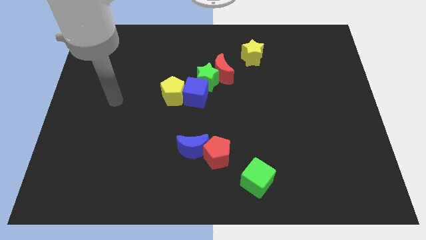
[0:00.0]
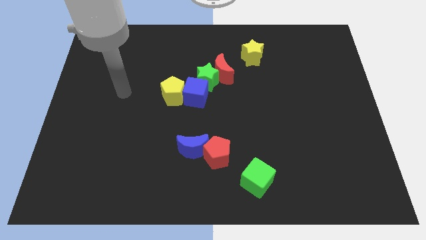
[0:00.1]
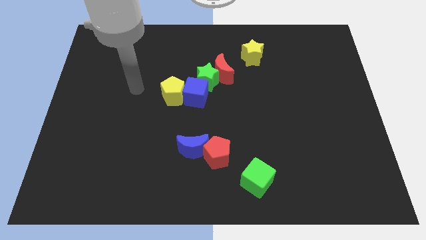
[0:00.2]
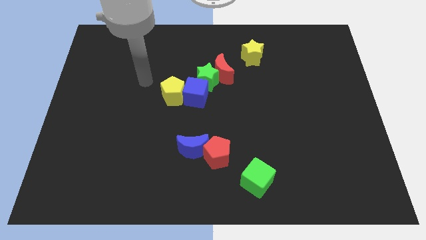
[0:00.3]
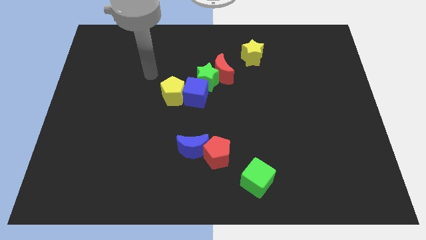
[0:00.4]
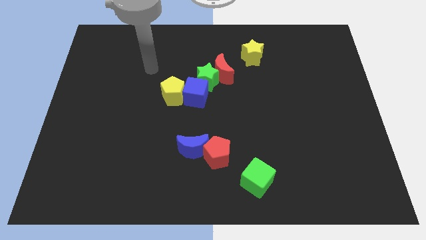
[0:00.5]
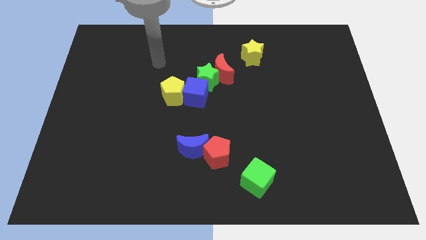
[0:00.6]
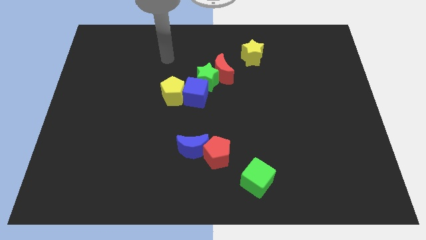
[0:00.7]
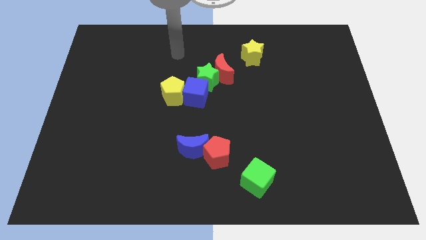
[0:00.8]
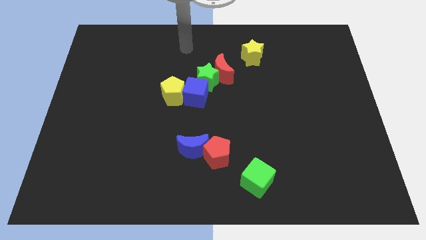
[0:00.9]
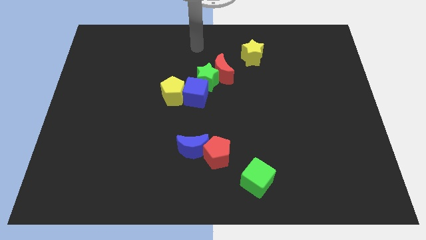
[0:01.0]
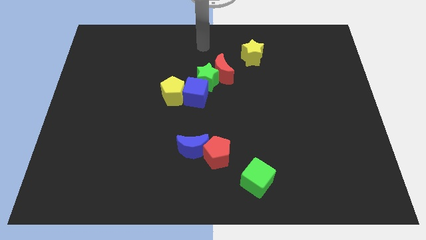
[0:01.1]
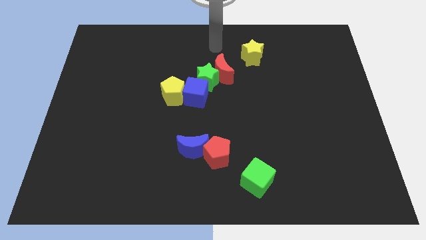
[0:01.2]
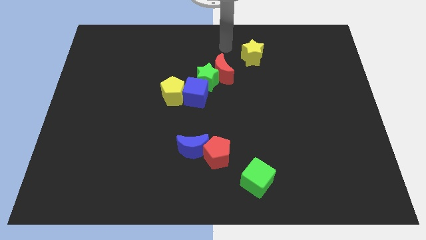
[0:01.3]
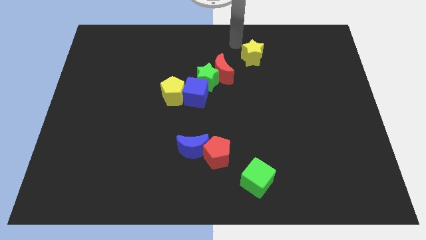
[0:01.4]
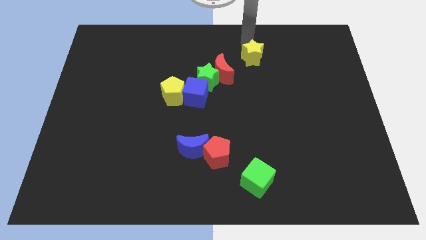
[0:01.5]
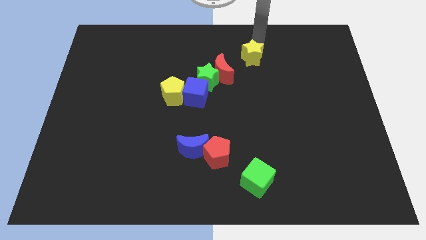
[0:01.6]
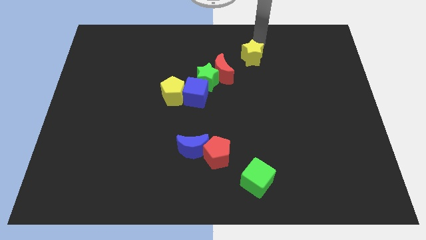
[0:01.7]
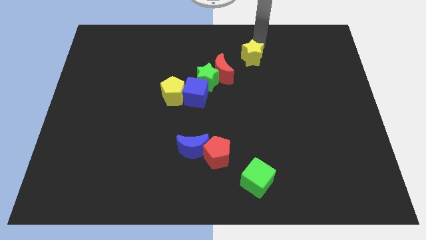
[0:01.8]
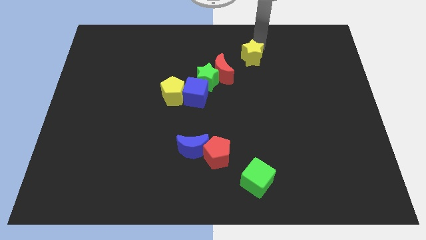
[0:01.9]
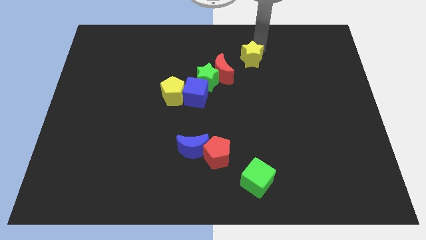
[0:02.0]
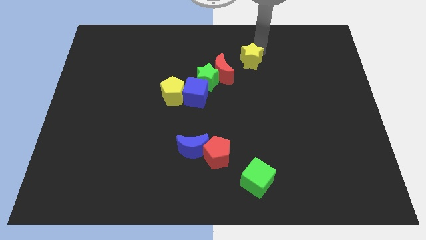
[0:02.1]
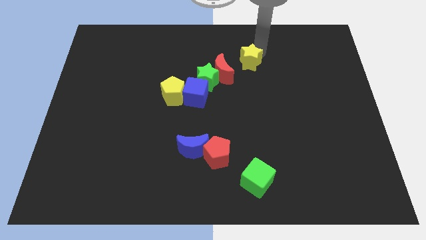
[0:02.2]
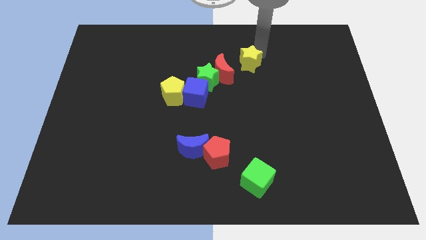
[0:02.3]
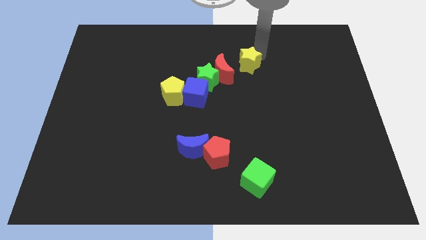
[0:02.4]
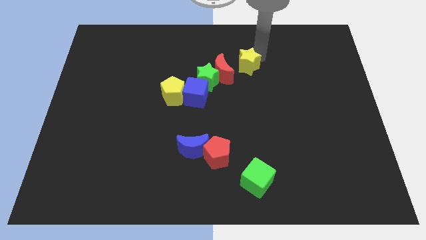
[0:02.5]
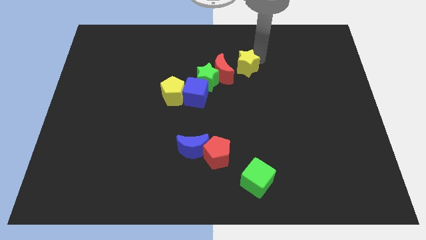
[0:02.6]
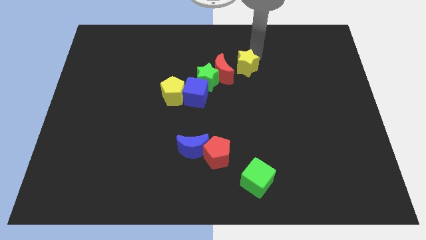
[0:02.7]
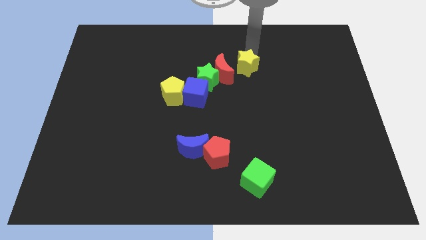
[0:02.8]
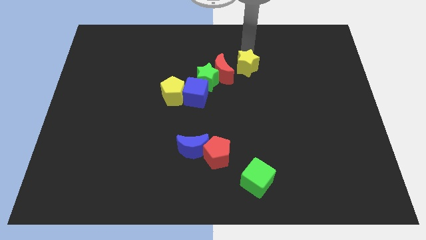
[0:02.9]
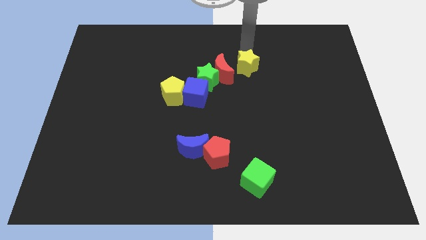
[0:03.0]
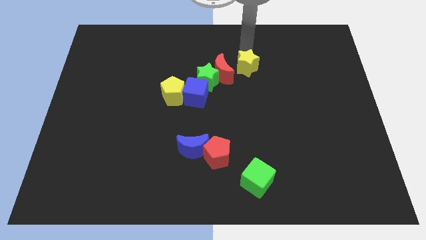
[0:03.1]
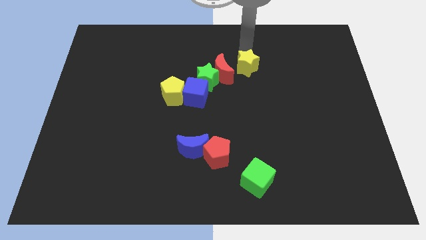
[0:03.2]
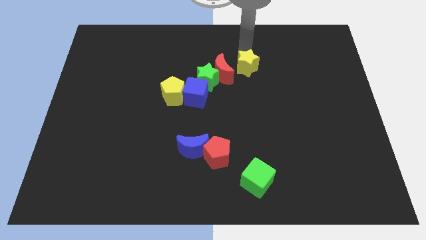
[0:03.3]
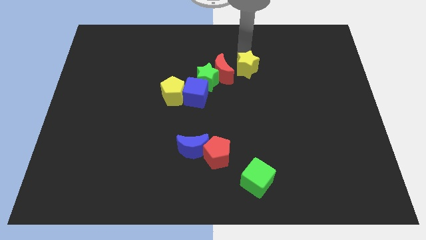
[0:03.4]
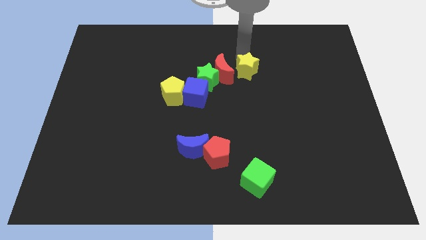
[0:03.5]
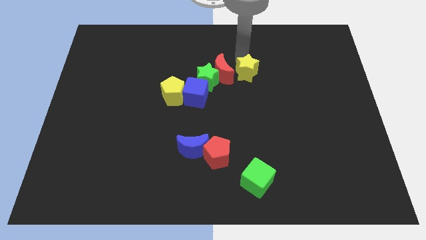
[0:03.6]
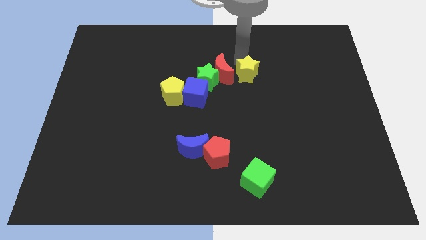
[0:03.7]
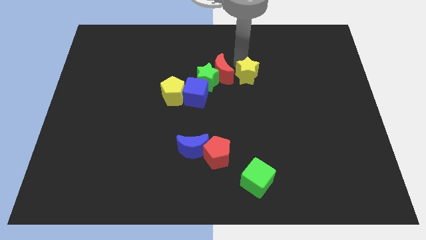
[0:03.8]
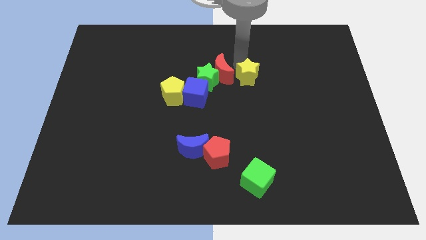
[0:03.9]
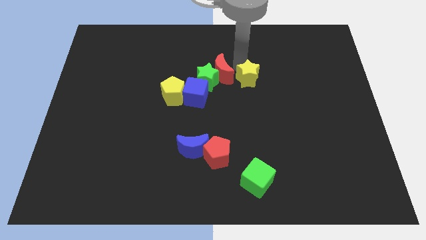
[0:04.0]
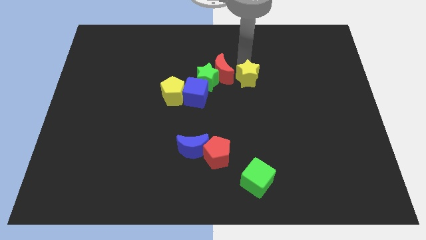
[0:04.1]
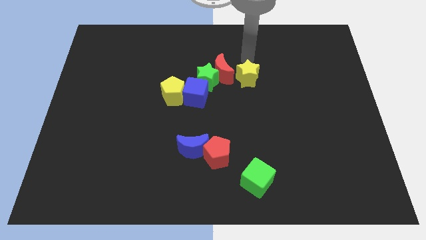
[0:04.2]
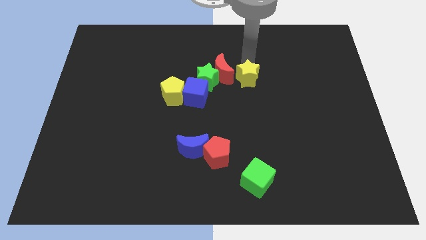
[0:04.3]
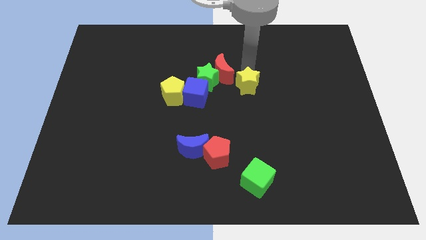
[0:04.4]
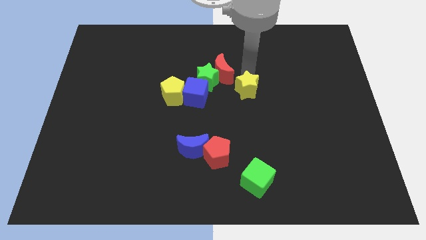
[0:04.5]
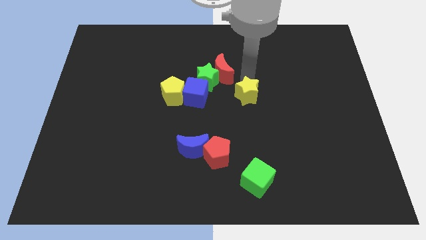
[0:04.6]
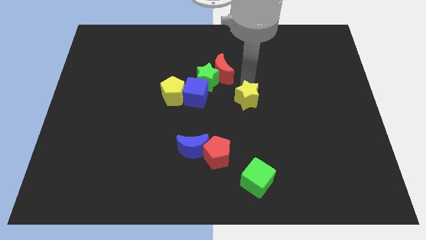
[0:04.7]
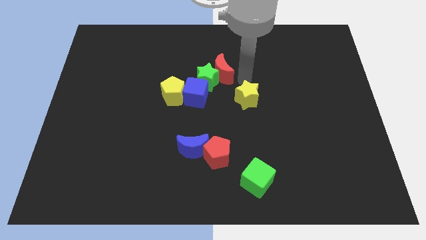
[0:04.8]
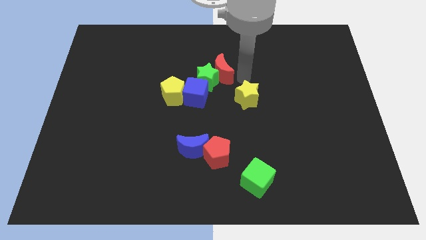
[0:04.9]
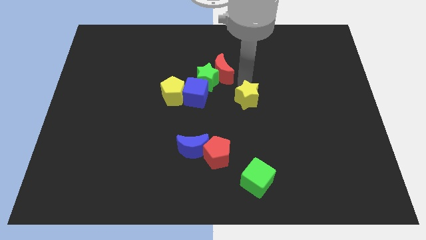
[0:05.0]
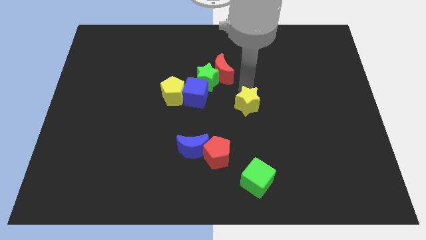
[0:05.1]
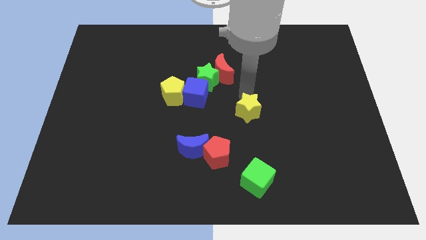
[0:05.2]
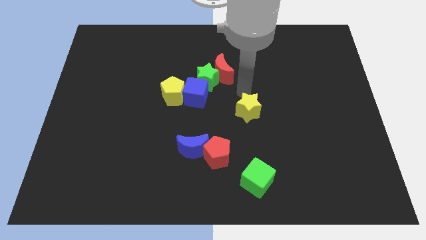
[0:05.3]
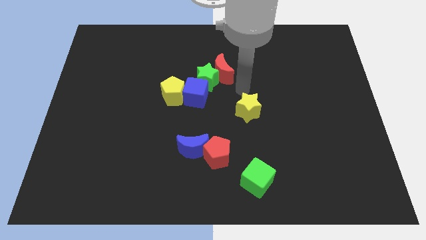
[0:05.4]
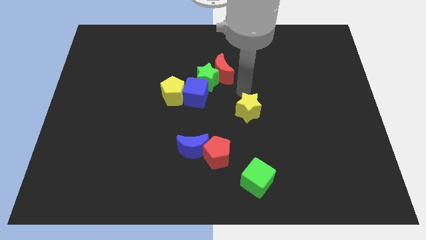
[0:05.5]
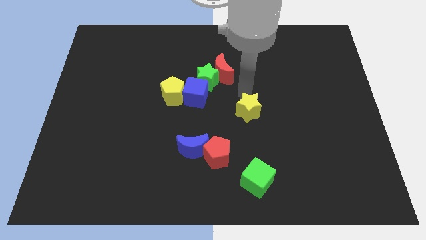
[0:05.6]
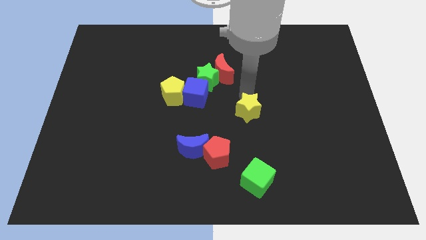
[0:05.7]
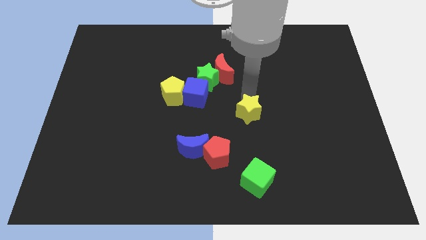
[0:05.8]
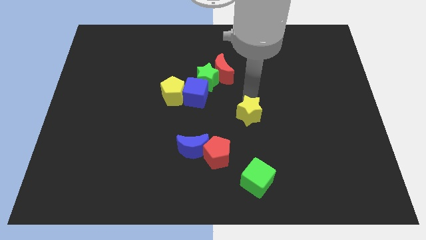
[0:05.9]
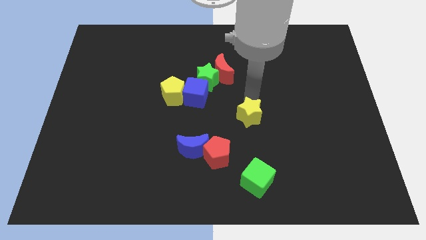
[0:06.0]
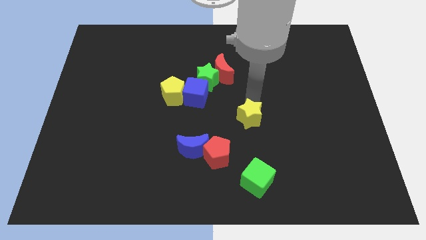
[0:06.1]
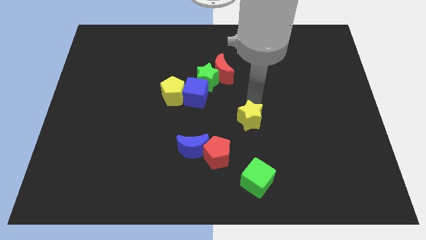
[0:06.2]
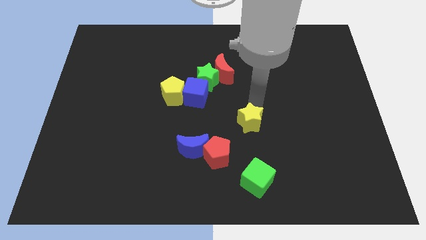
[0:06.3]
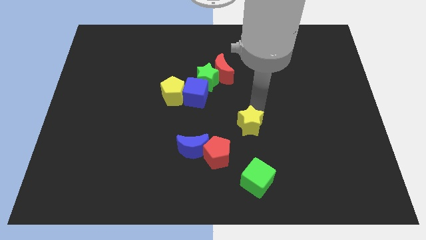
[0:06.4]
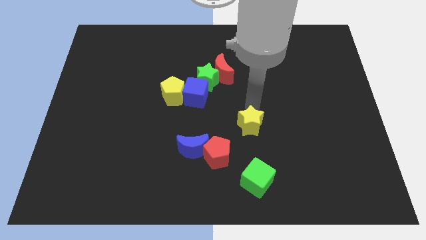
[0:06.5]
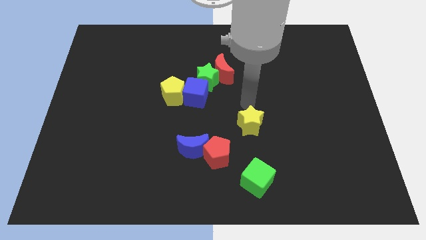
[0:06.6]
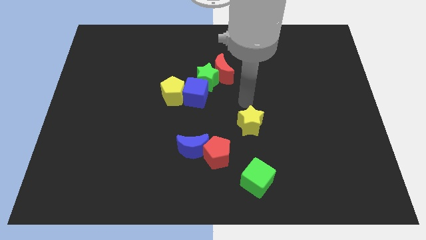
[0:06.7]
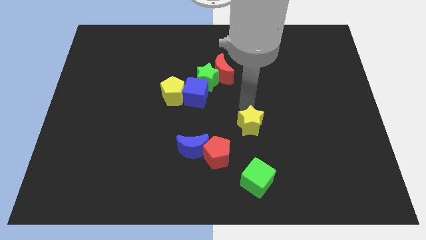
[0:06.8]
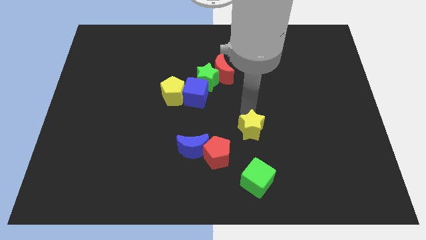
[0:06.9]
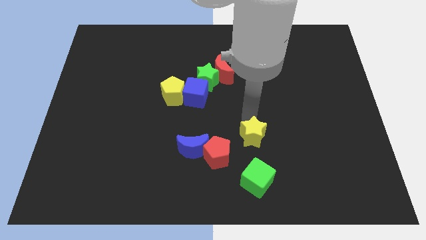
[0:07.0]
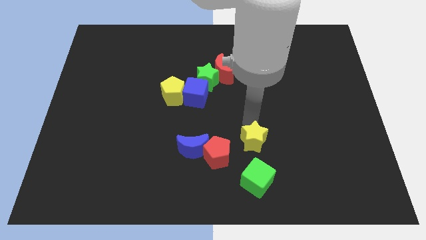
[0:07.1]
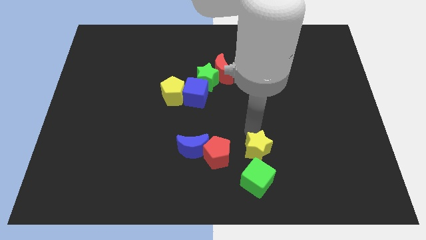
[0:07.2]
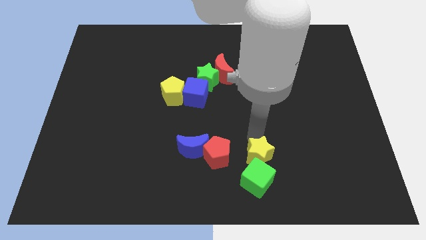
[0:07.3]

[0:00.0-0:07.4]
push the yellow star to the green cube
